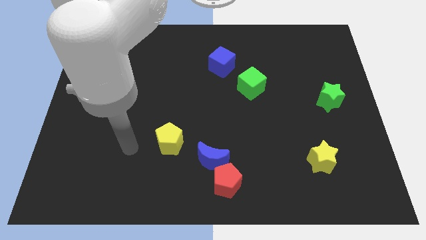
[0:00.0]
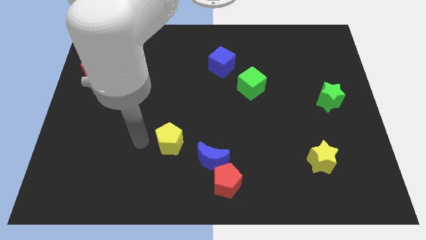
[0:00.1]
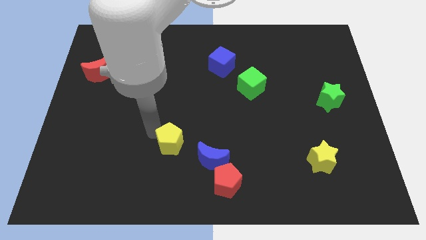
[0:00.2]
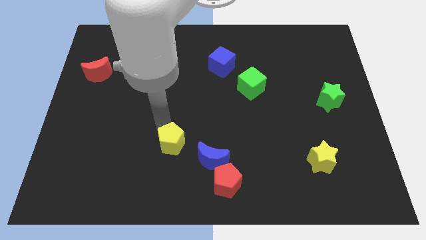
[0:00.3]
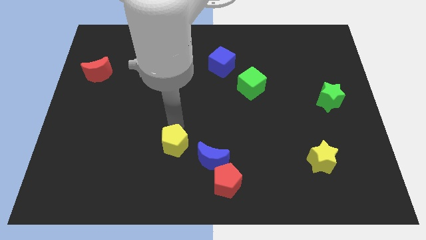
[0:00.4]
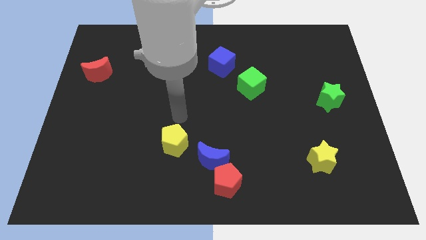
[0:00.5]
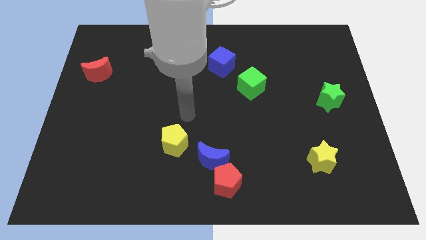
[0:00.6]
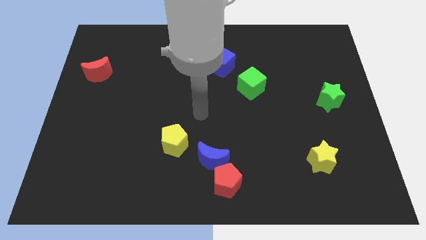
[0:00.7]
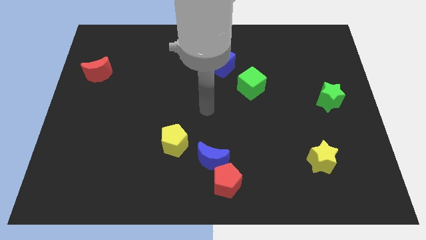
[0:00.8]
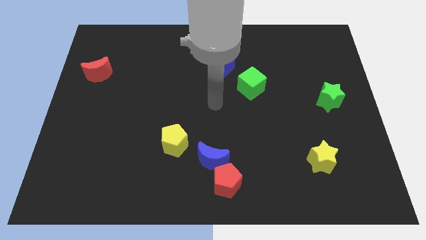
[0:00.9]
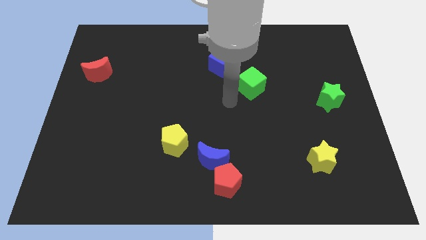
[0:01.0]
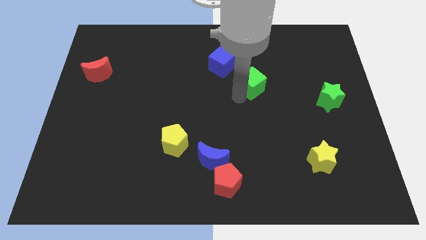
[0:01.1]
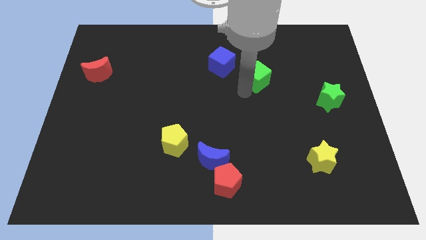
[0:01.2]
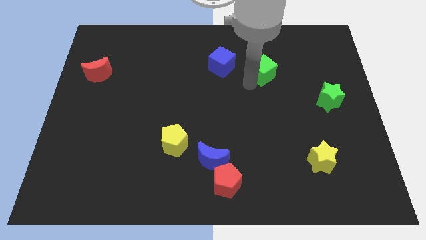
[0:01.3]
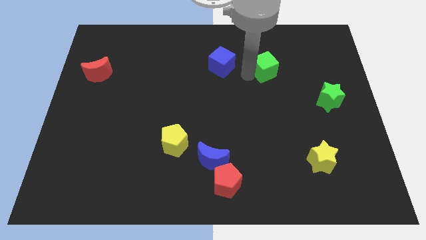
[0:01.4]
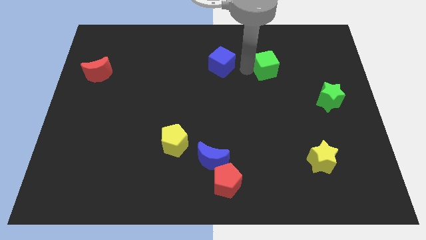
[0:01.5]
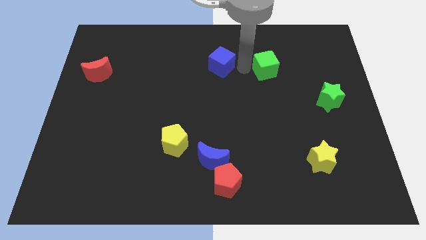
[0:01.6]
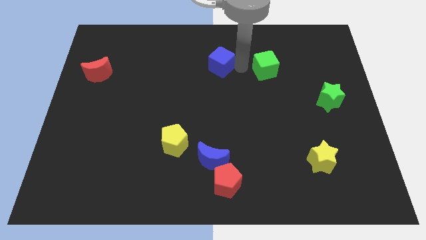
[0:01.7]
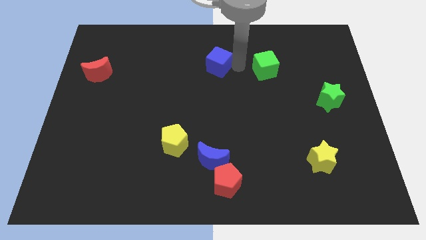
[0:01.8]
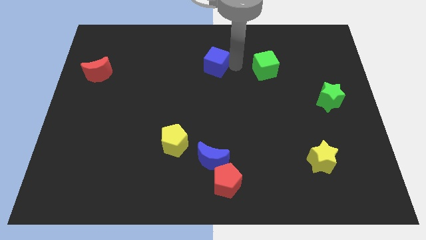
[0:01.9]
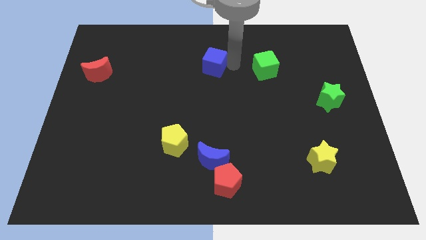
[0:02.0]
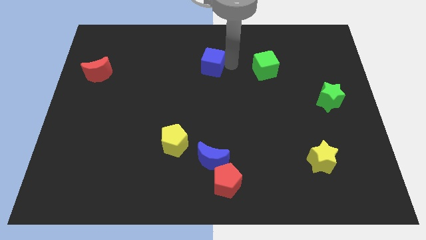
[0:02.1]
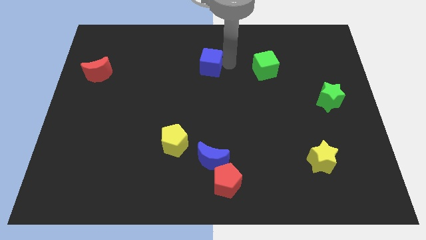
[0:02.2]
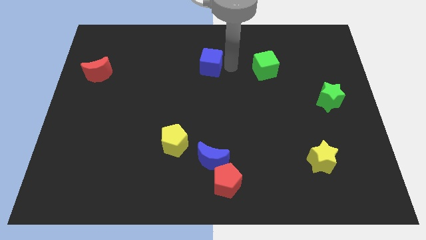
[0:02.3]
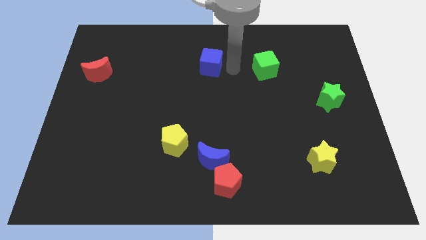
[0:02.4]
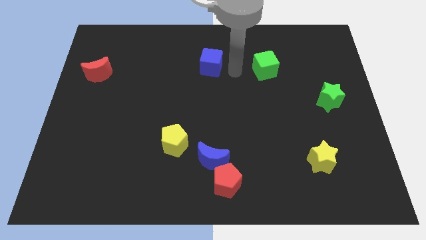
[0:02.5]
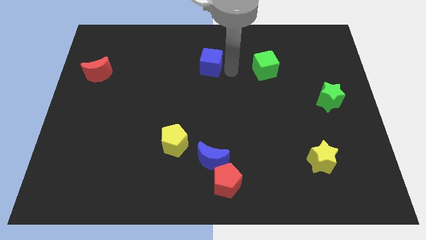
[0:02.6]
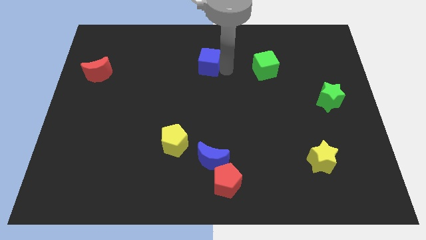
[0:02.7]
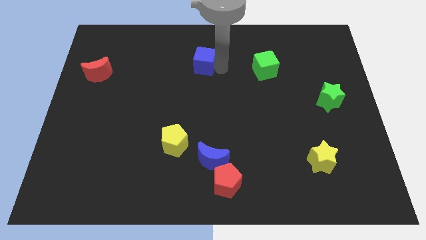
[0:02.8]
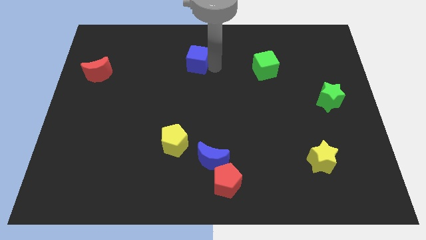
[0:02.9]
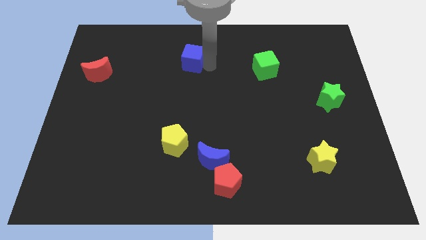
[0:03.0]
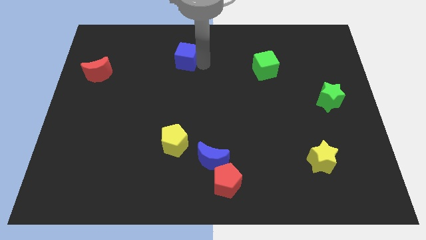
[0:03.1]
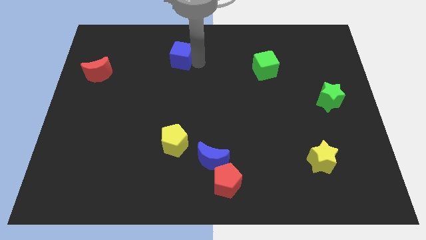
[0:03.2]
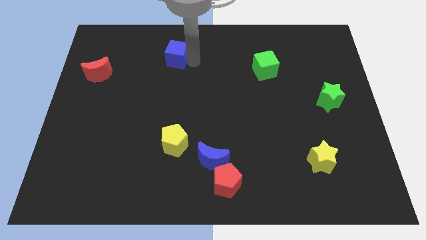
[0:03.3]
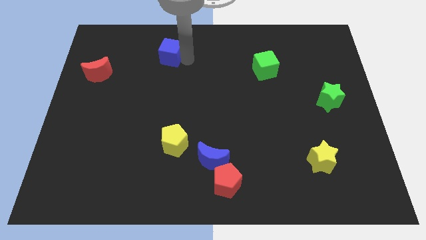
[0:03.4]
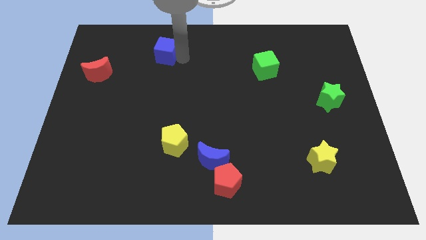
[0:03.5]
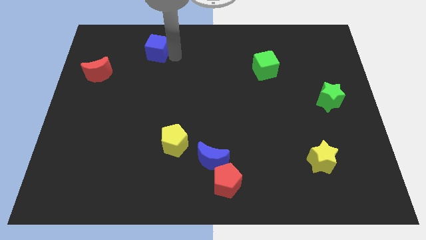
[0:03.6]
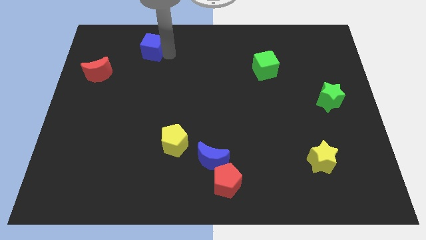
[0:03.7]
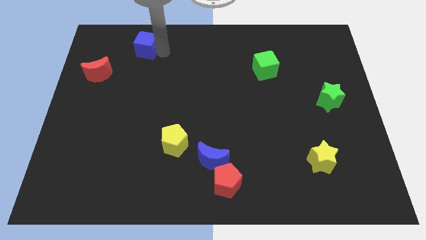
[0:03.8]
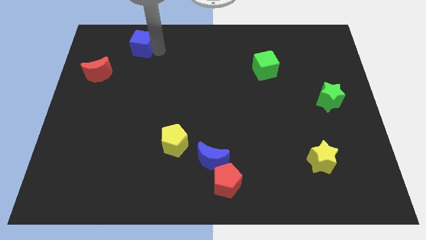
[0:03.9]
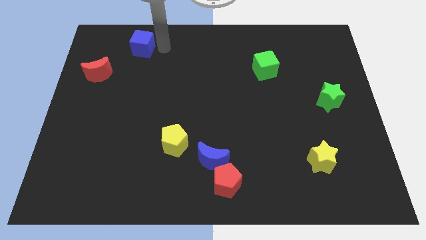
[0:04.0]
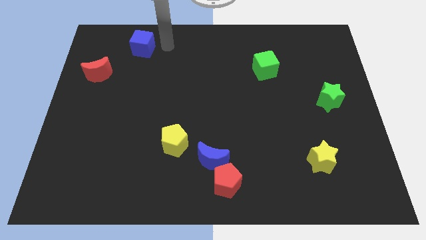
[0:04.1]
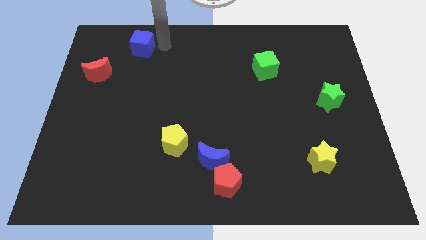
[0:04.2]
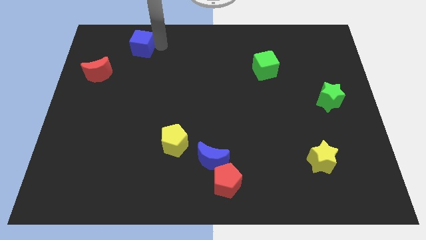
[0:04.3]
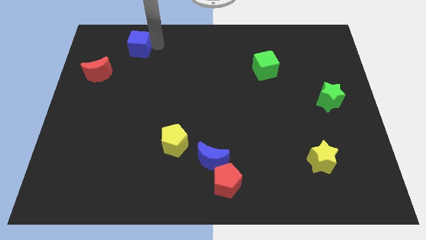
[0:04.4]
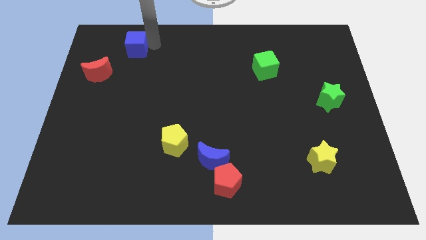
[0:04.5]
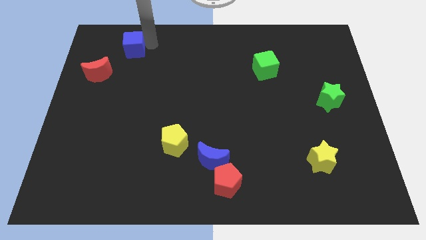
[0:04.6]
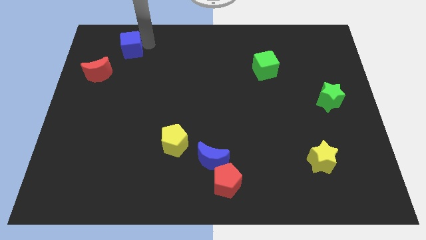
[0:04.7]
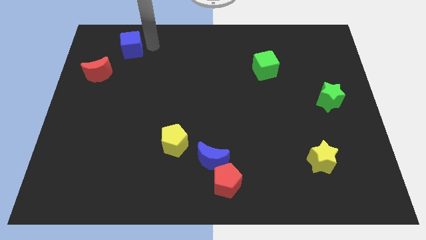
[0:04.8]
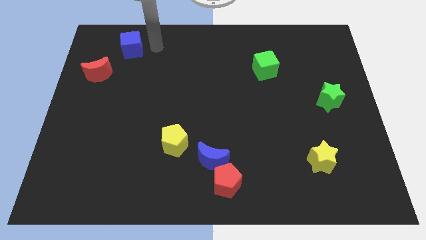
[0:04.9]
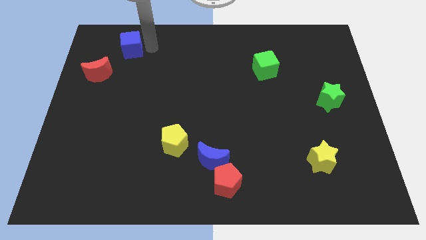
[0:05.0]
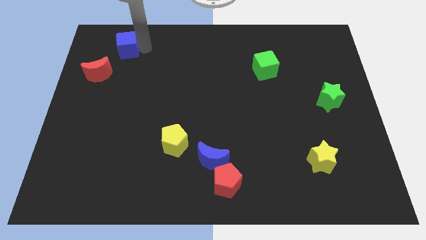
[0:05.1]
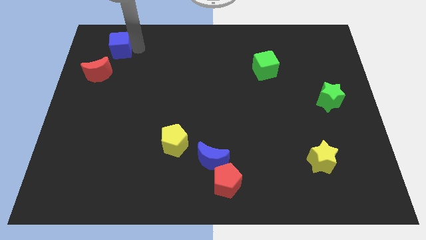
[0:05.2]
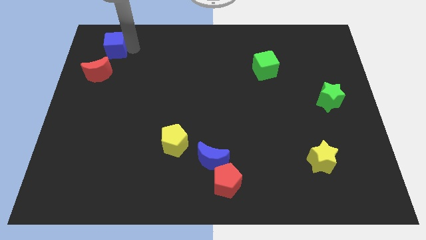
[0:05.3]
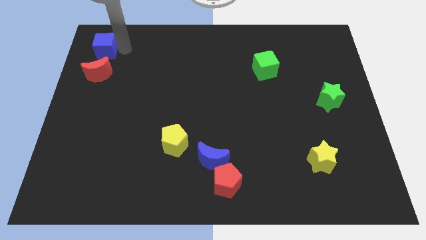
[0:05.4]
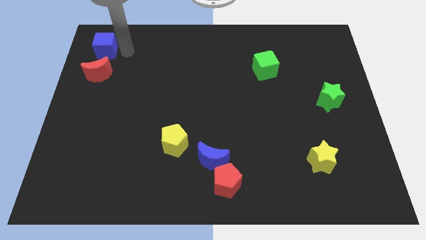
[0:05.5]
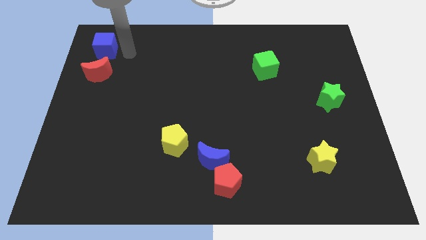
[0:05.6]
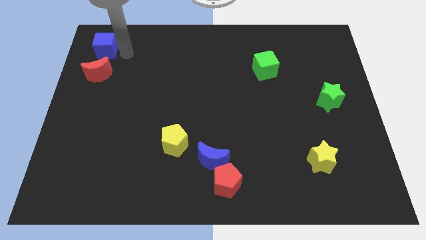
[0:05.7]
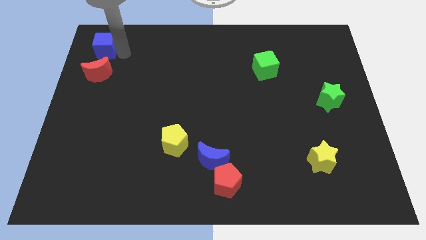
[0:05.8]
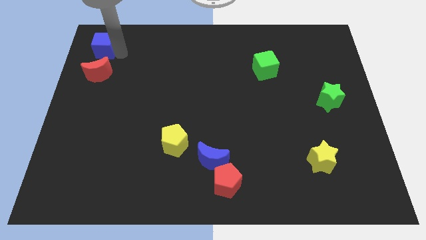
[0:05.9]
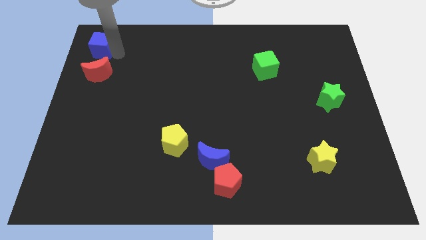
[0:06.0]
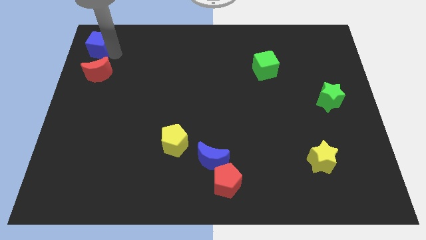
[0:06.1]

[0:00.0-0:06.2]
put the blue cube to the top left
